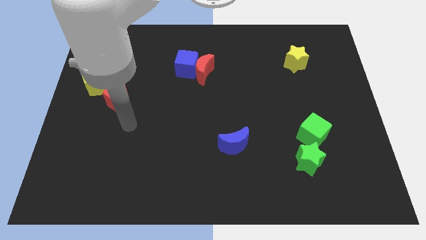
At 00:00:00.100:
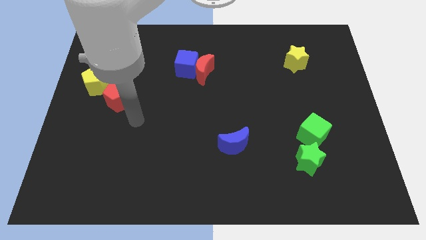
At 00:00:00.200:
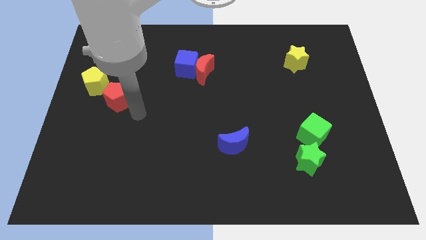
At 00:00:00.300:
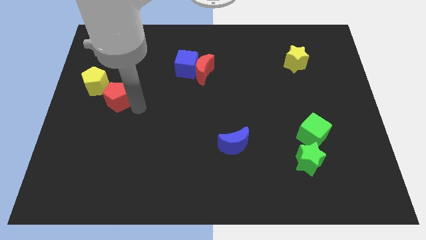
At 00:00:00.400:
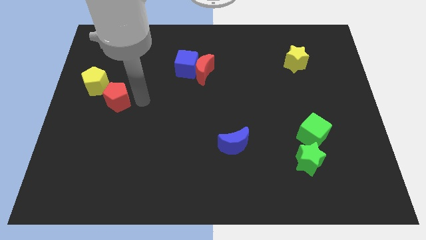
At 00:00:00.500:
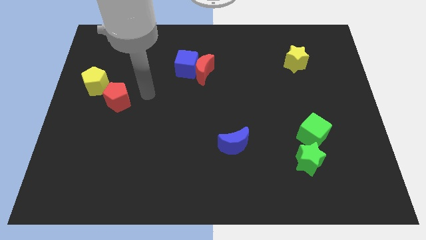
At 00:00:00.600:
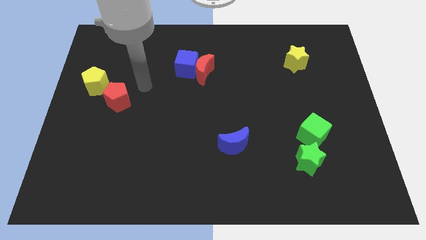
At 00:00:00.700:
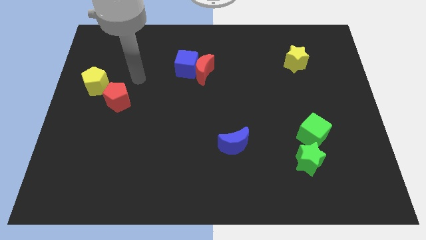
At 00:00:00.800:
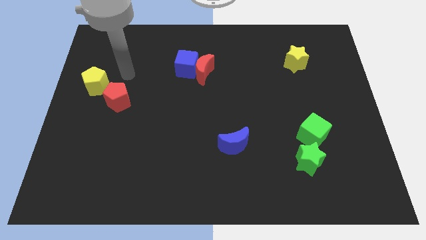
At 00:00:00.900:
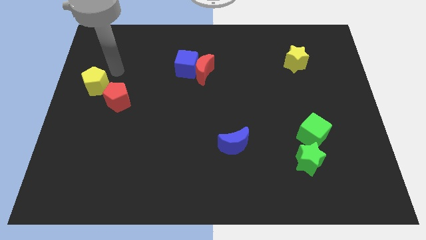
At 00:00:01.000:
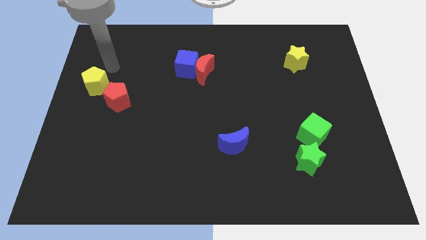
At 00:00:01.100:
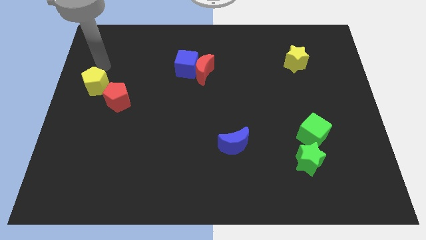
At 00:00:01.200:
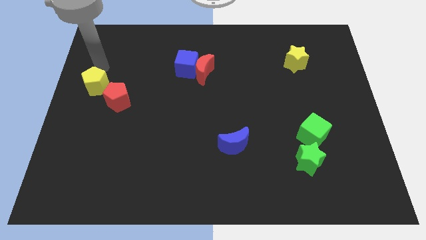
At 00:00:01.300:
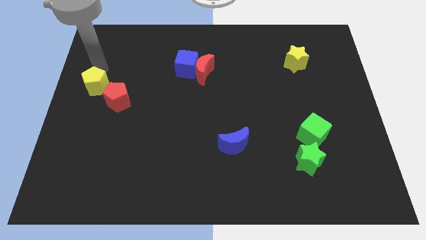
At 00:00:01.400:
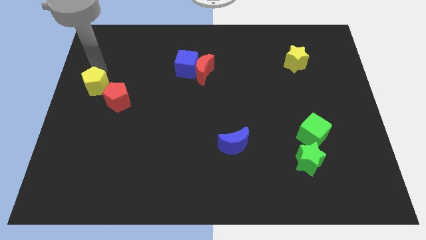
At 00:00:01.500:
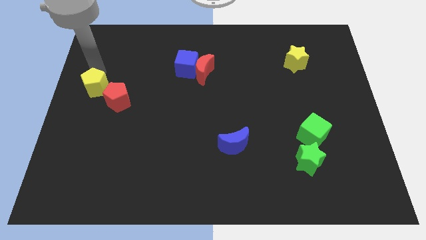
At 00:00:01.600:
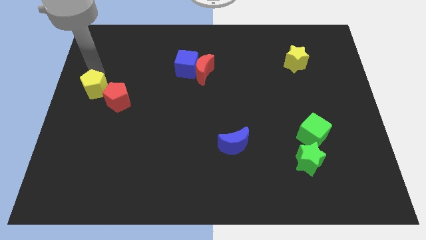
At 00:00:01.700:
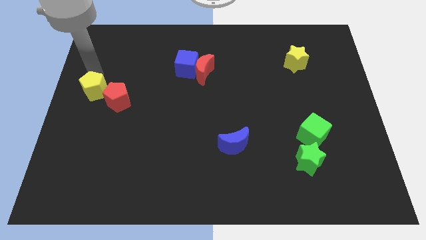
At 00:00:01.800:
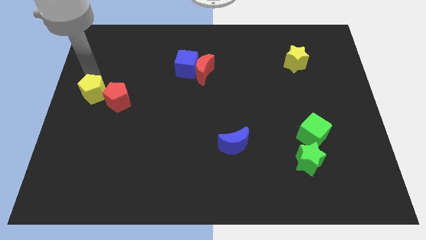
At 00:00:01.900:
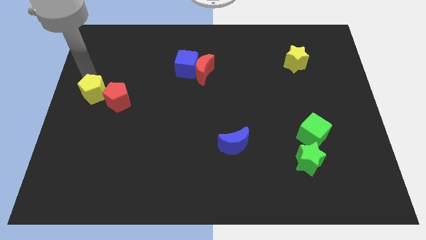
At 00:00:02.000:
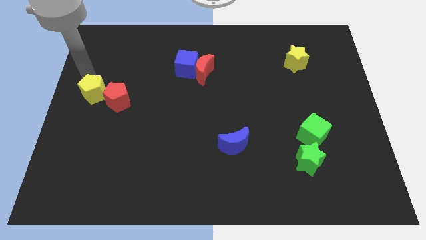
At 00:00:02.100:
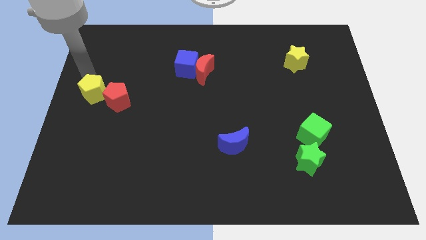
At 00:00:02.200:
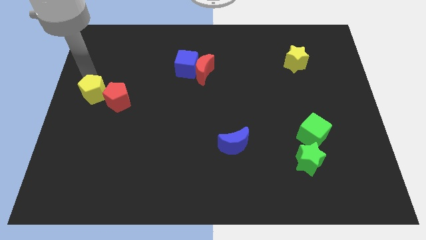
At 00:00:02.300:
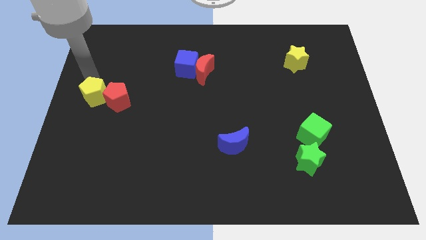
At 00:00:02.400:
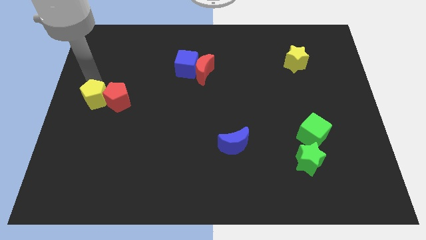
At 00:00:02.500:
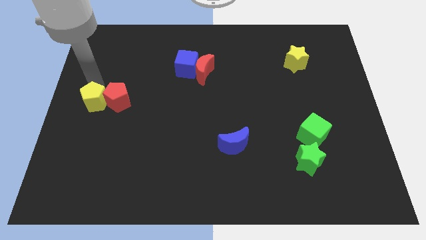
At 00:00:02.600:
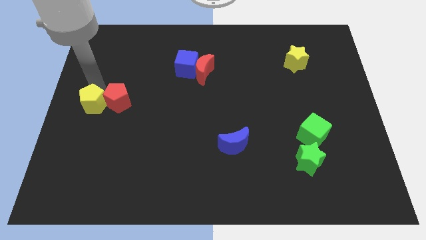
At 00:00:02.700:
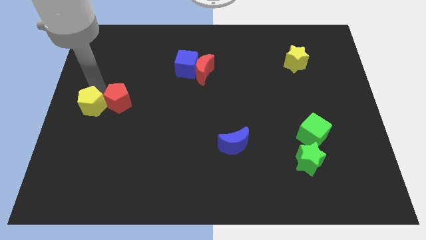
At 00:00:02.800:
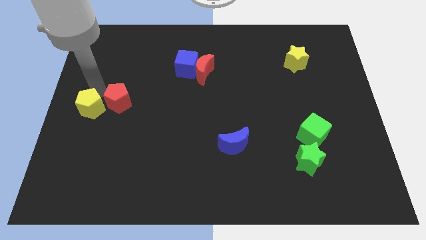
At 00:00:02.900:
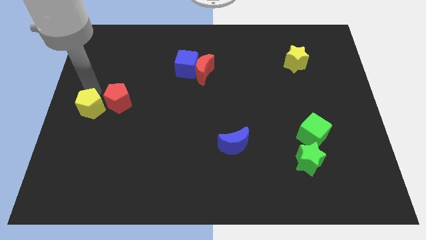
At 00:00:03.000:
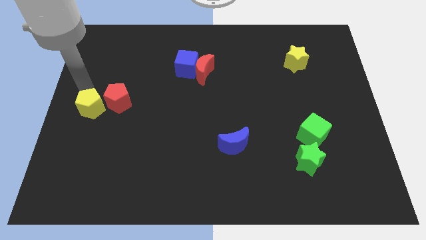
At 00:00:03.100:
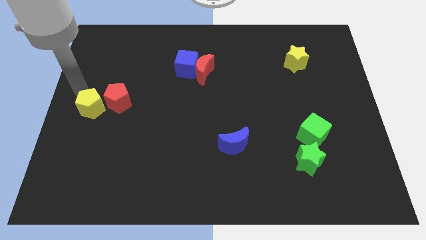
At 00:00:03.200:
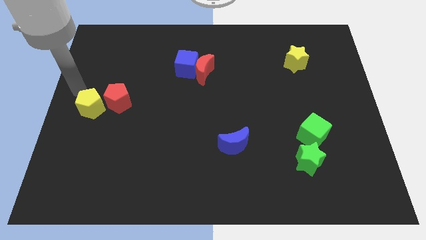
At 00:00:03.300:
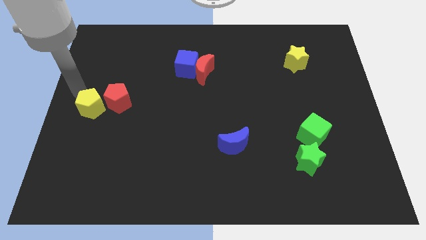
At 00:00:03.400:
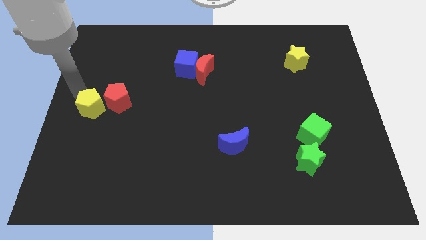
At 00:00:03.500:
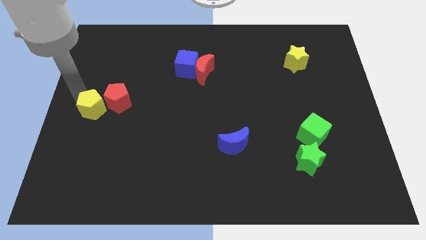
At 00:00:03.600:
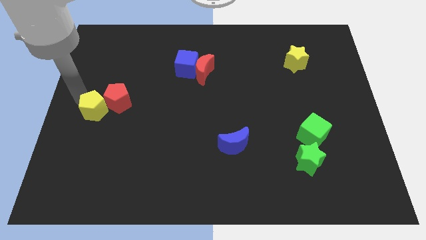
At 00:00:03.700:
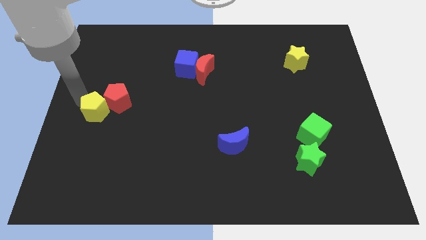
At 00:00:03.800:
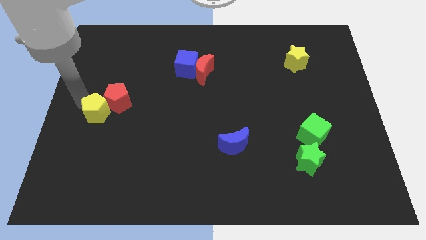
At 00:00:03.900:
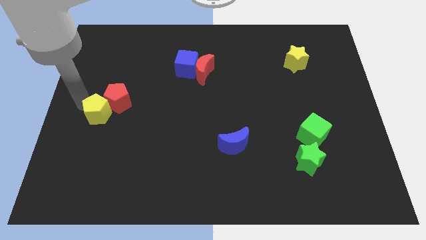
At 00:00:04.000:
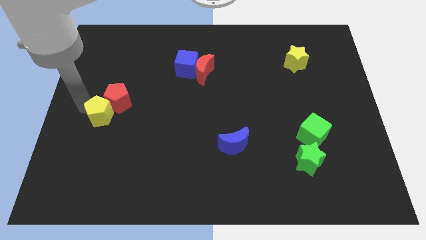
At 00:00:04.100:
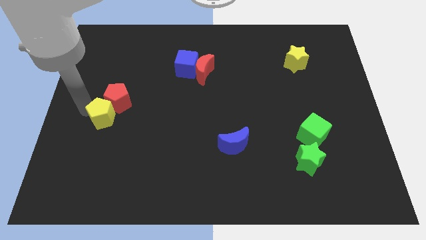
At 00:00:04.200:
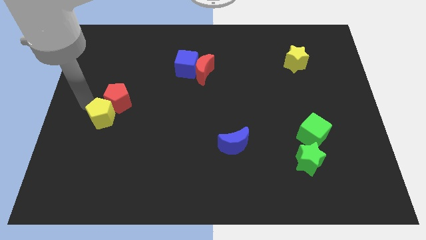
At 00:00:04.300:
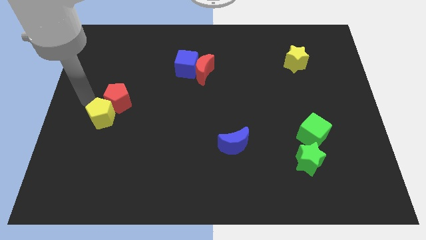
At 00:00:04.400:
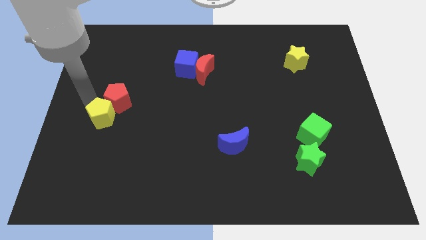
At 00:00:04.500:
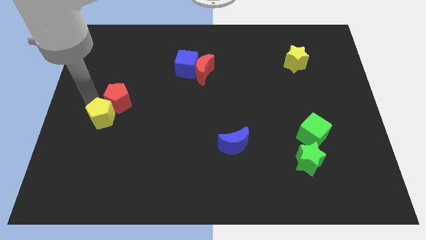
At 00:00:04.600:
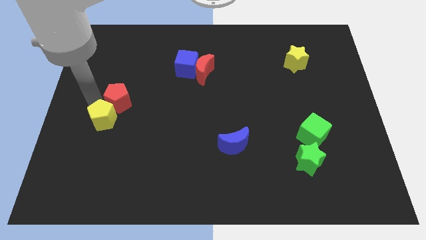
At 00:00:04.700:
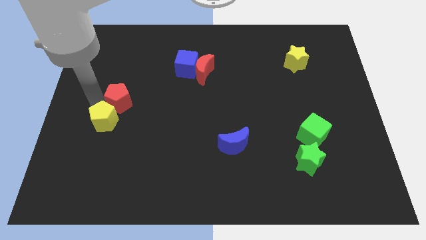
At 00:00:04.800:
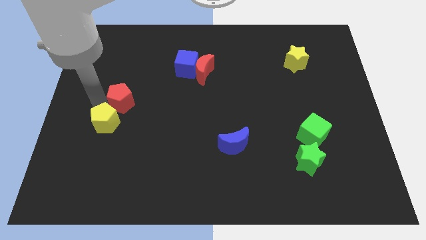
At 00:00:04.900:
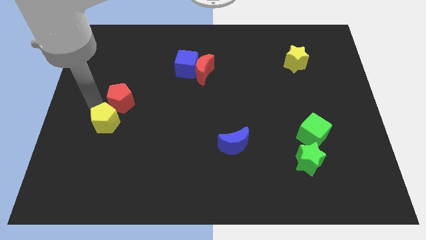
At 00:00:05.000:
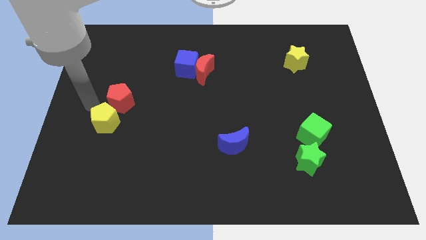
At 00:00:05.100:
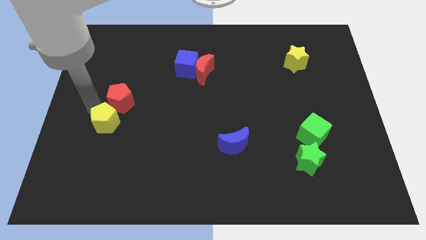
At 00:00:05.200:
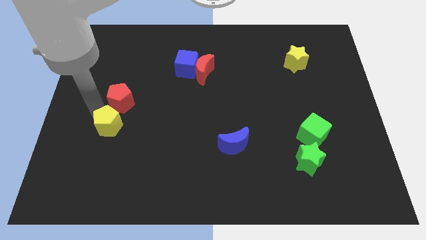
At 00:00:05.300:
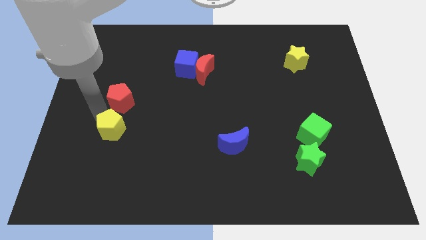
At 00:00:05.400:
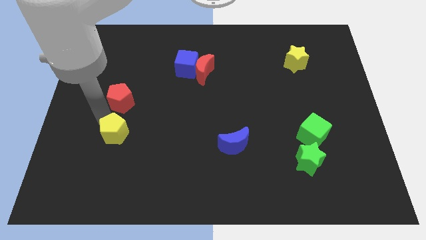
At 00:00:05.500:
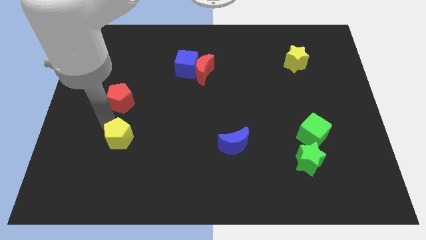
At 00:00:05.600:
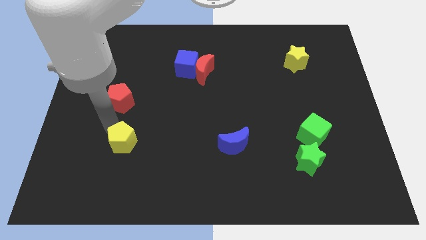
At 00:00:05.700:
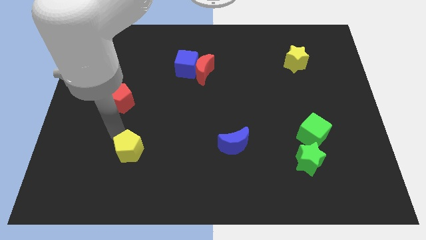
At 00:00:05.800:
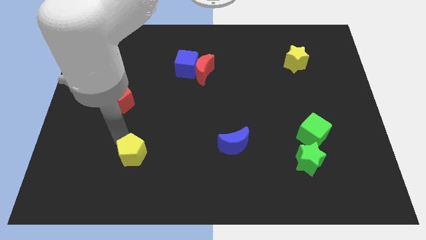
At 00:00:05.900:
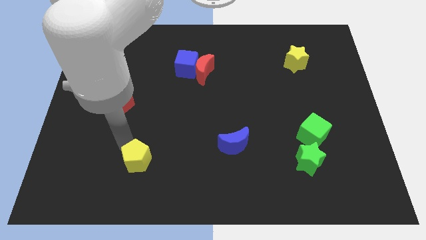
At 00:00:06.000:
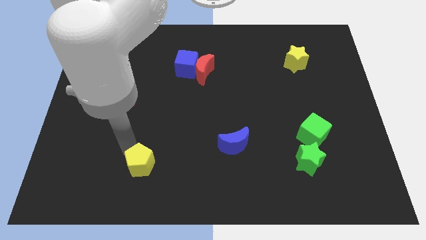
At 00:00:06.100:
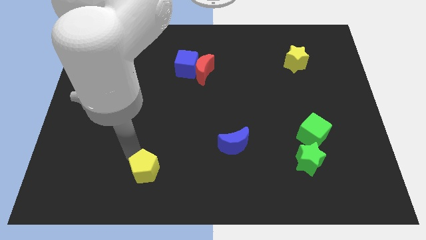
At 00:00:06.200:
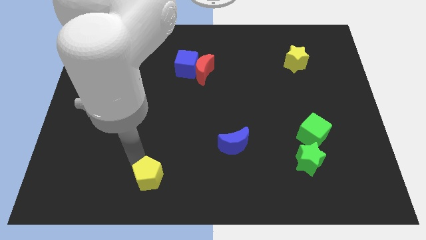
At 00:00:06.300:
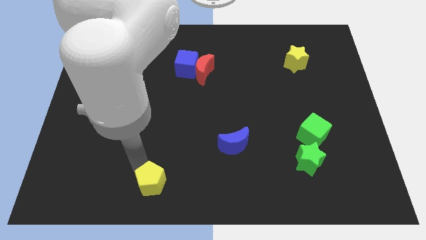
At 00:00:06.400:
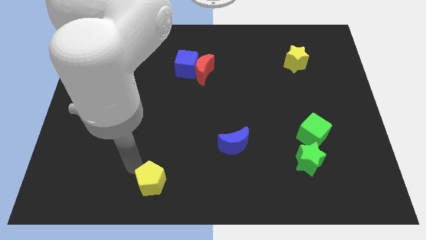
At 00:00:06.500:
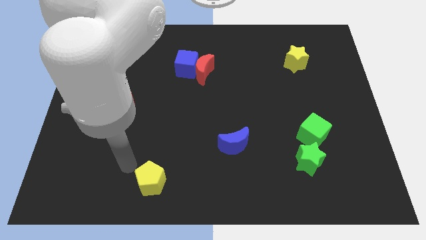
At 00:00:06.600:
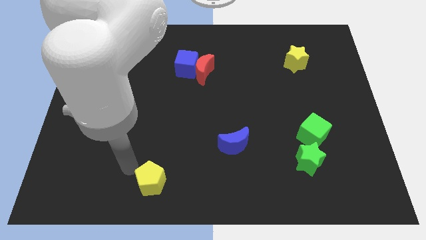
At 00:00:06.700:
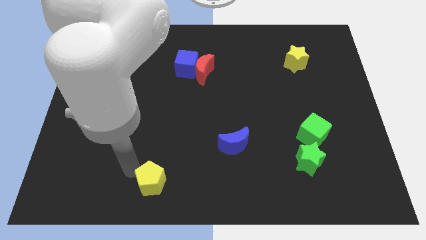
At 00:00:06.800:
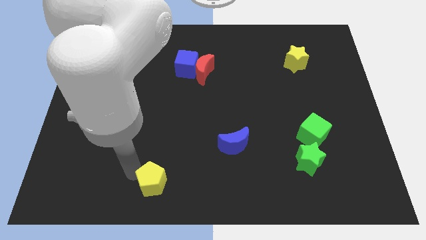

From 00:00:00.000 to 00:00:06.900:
put the yellow pentagon to the bottom side

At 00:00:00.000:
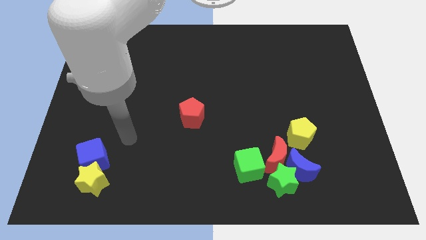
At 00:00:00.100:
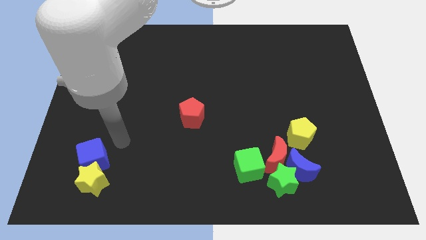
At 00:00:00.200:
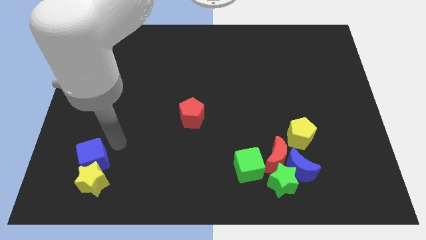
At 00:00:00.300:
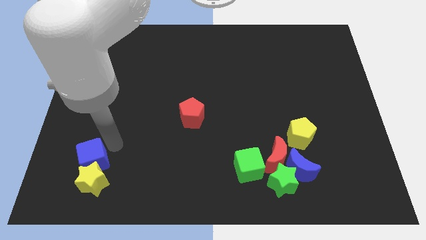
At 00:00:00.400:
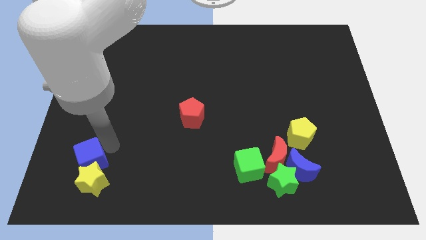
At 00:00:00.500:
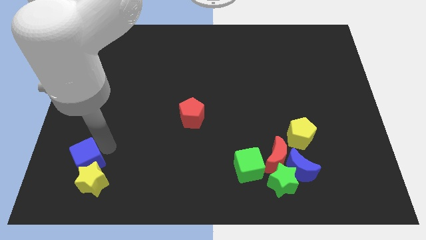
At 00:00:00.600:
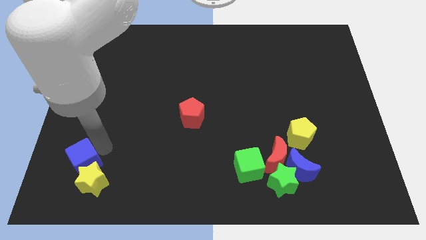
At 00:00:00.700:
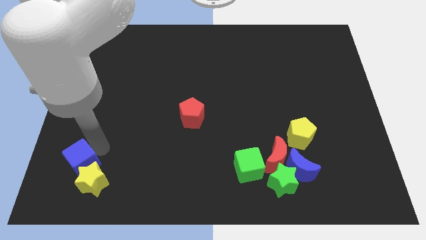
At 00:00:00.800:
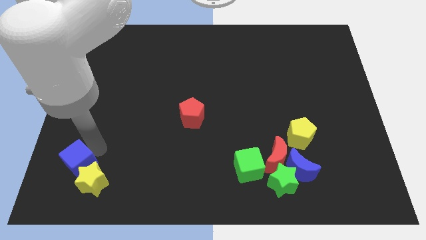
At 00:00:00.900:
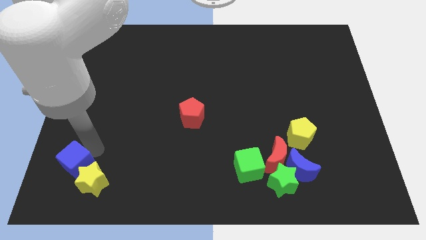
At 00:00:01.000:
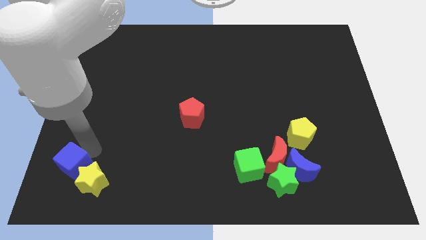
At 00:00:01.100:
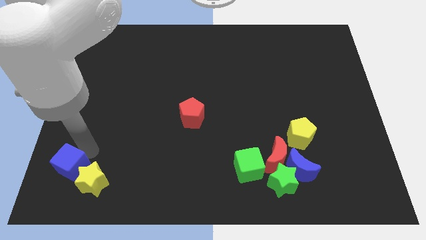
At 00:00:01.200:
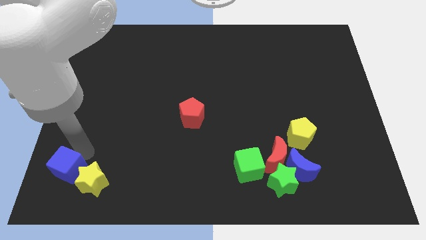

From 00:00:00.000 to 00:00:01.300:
move the blue cube to the lower left corner
